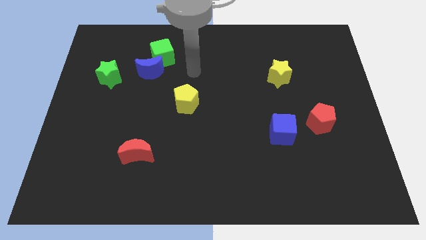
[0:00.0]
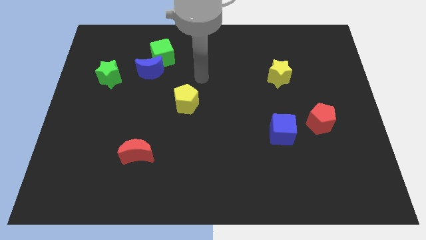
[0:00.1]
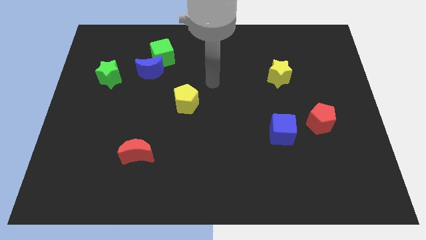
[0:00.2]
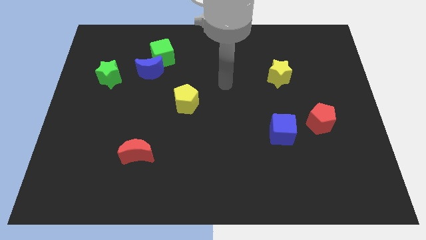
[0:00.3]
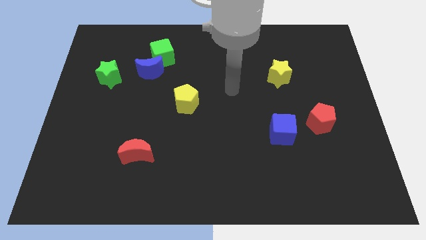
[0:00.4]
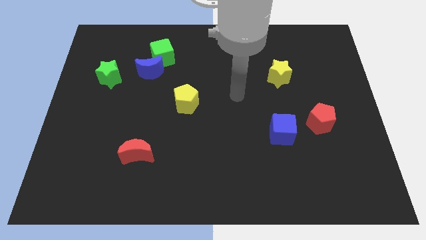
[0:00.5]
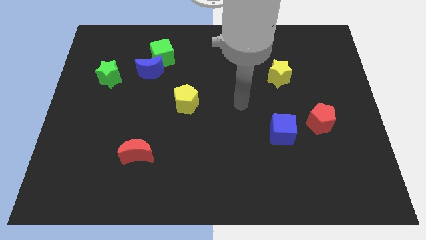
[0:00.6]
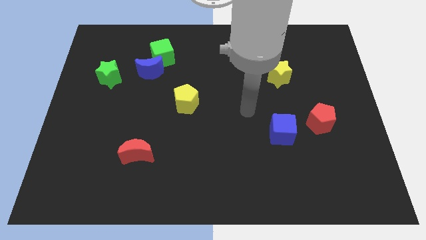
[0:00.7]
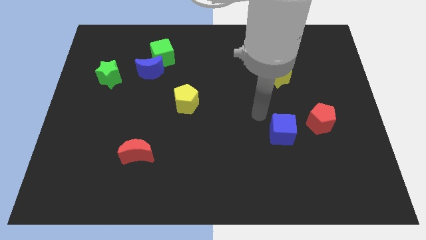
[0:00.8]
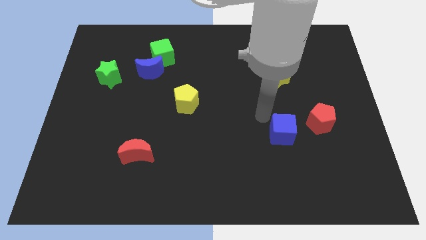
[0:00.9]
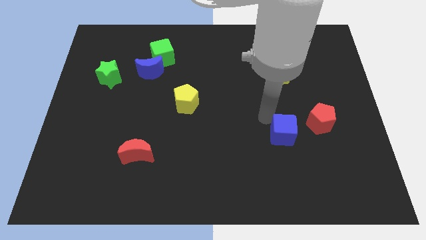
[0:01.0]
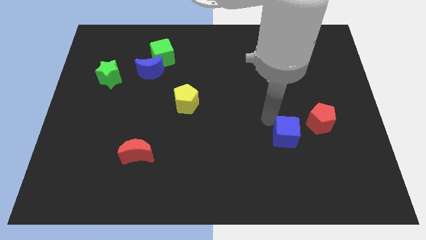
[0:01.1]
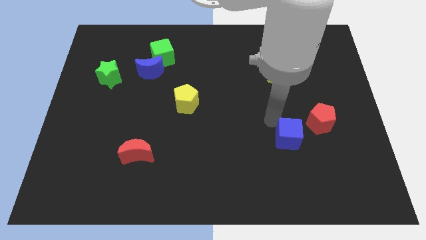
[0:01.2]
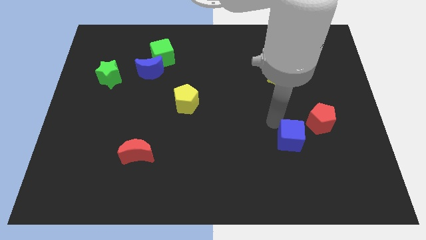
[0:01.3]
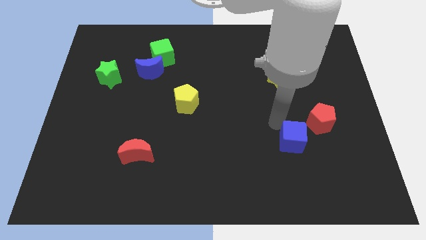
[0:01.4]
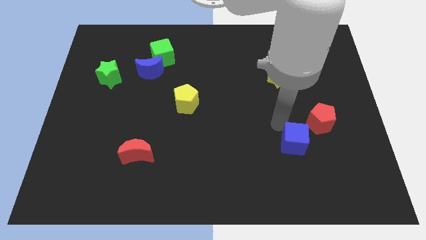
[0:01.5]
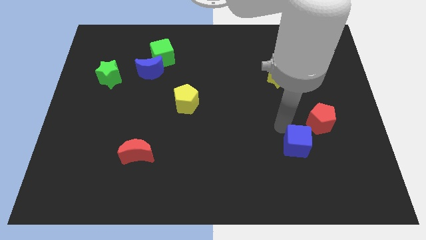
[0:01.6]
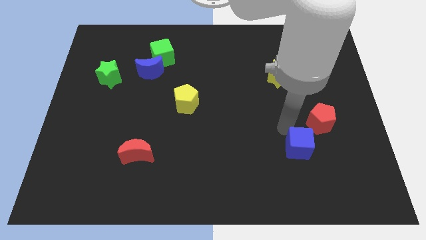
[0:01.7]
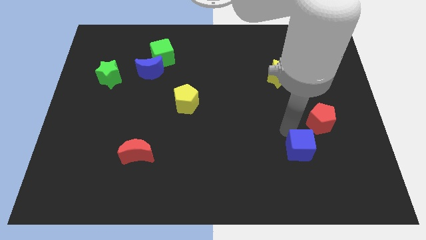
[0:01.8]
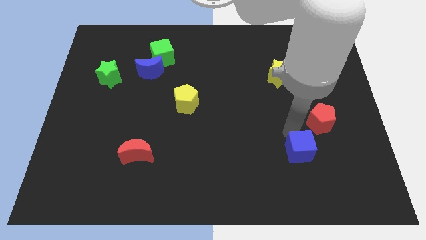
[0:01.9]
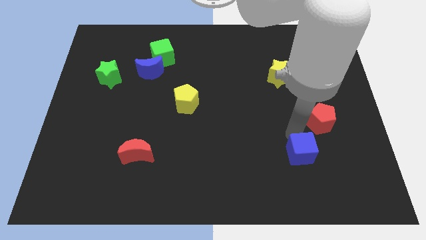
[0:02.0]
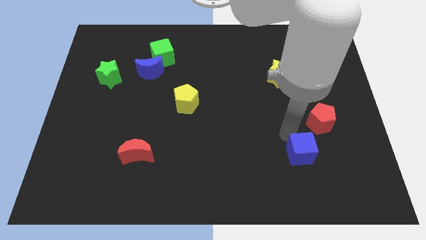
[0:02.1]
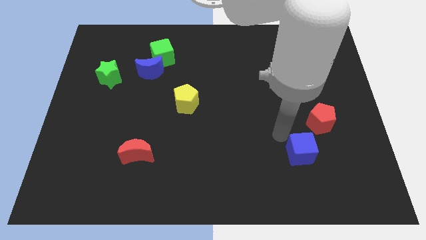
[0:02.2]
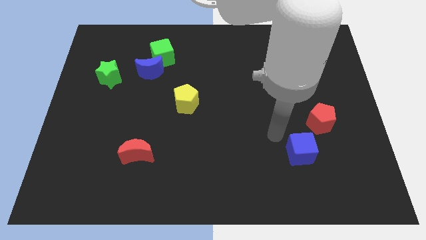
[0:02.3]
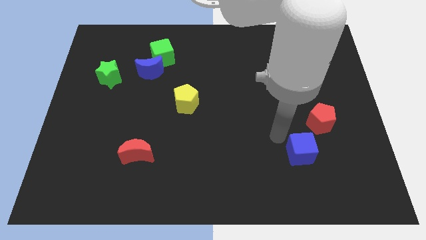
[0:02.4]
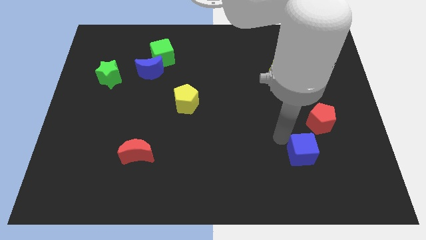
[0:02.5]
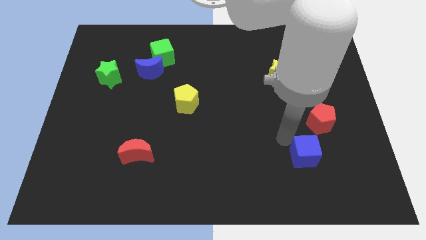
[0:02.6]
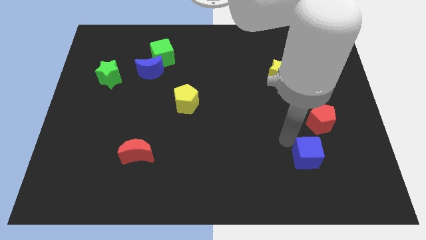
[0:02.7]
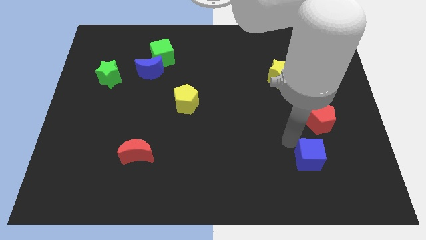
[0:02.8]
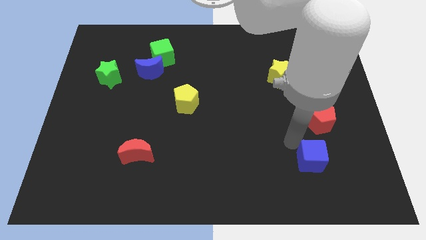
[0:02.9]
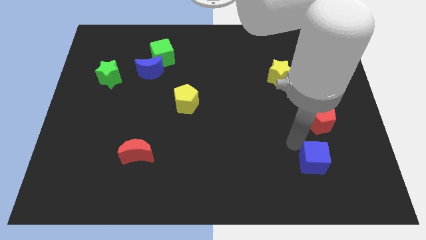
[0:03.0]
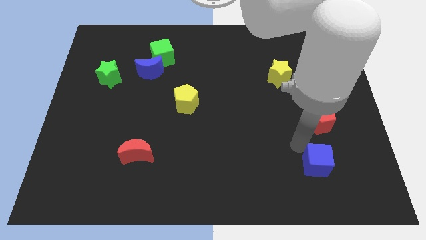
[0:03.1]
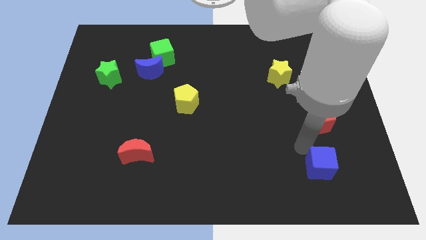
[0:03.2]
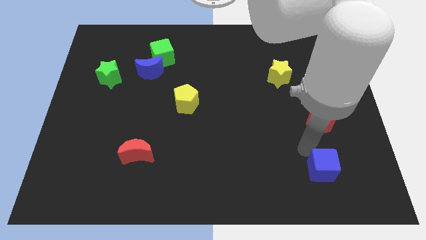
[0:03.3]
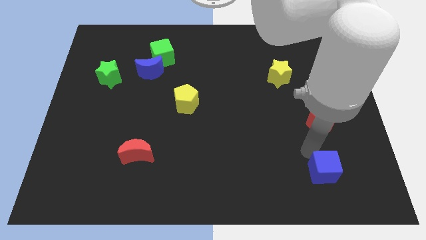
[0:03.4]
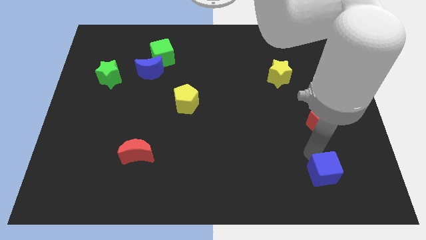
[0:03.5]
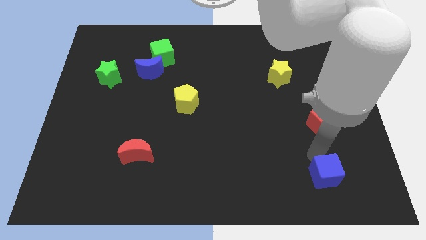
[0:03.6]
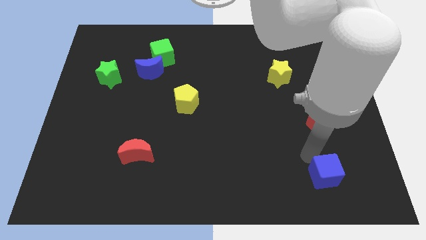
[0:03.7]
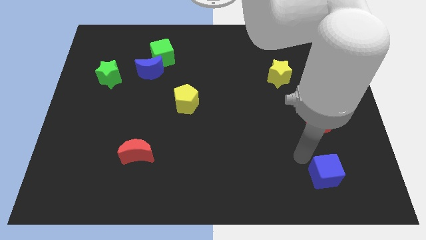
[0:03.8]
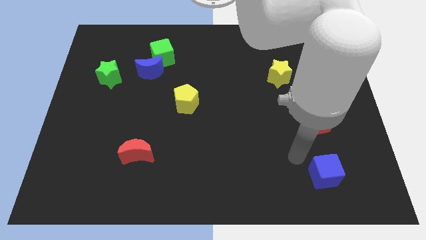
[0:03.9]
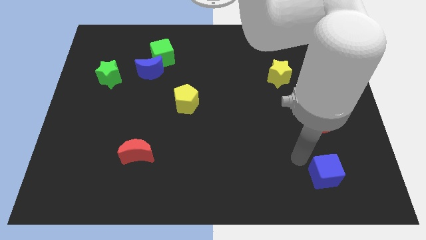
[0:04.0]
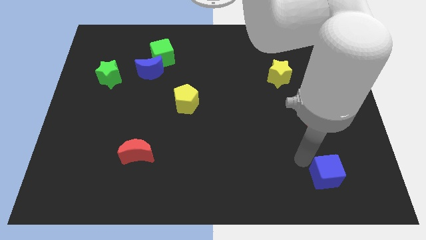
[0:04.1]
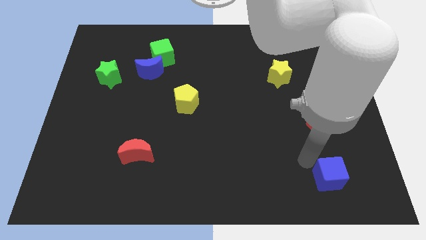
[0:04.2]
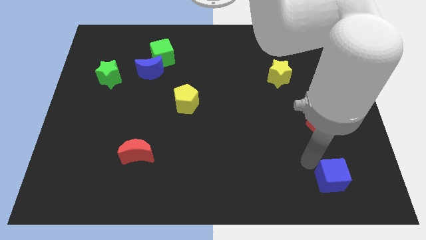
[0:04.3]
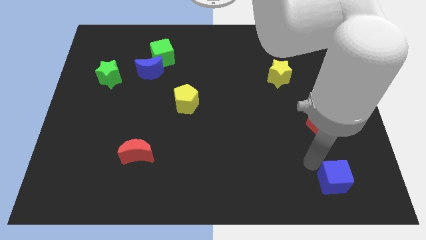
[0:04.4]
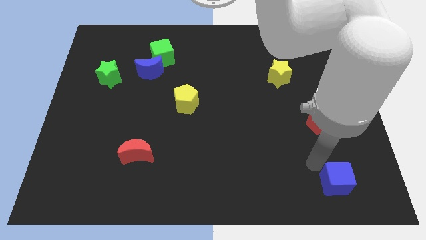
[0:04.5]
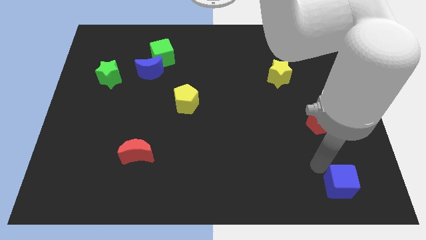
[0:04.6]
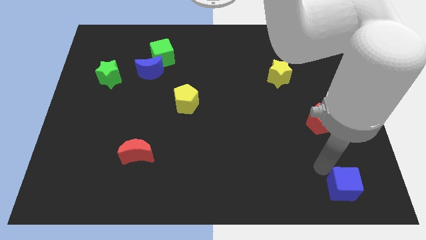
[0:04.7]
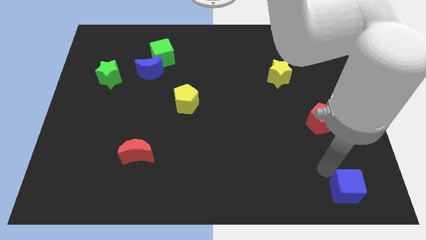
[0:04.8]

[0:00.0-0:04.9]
slide the blue cube to the bottom right of the board

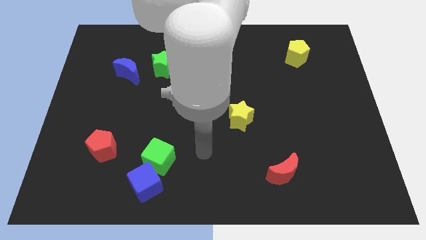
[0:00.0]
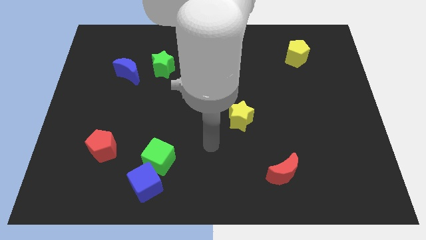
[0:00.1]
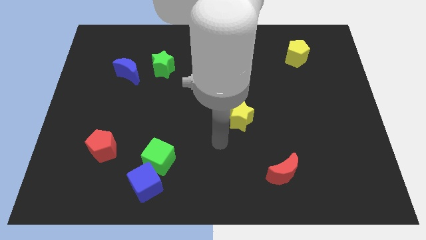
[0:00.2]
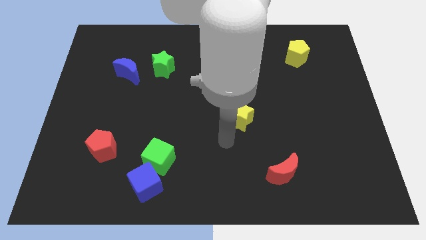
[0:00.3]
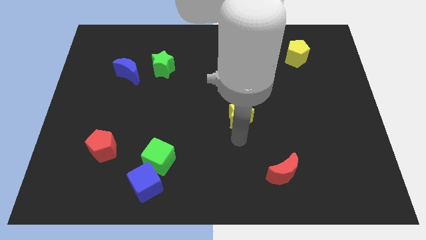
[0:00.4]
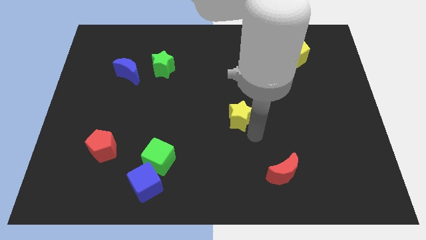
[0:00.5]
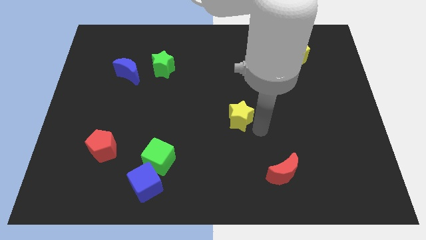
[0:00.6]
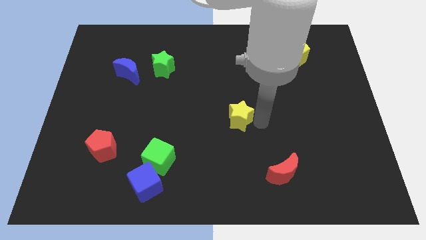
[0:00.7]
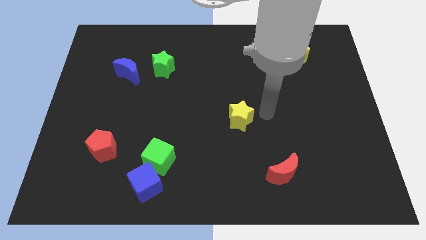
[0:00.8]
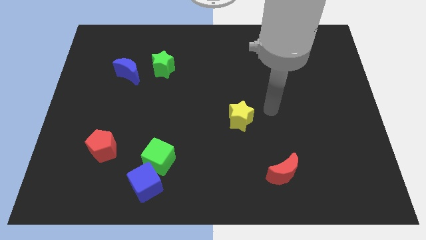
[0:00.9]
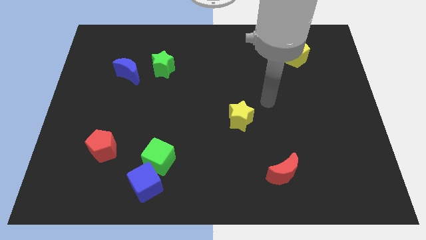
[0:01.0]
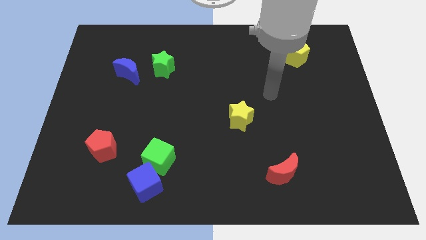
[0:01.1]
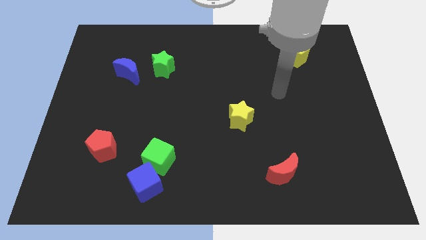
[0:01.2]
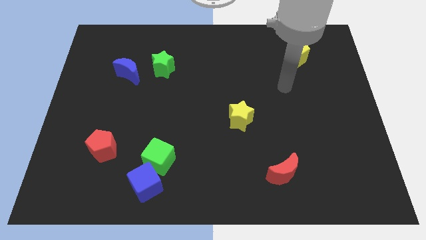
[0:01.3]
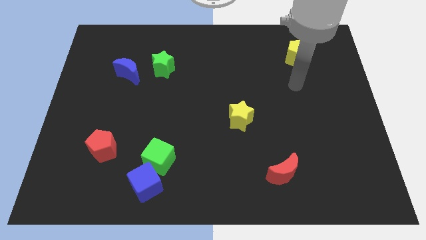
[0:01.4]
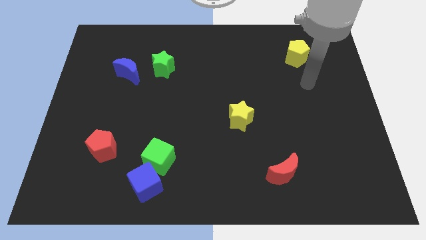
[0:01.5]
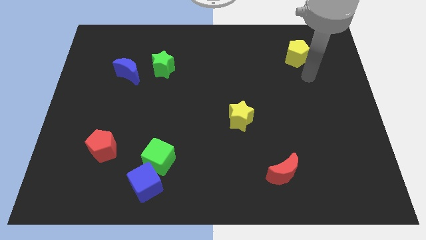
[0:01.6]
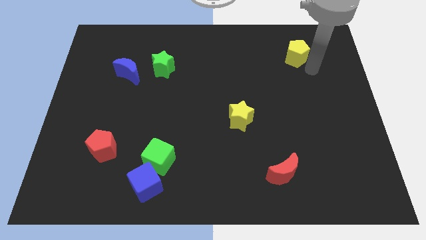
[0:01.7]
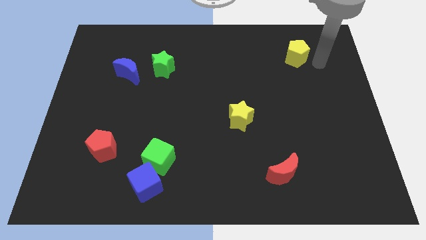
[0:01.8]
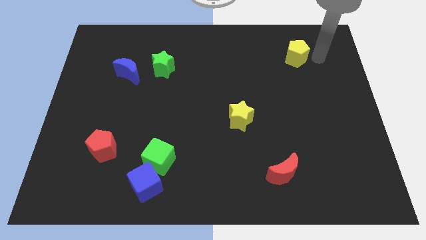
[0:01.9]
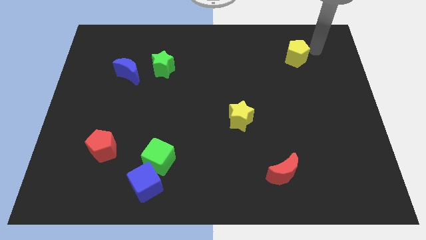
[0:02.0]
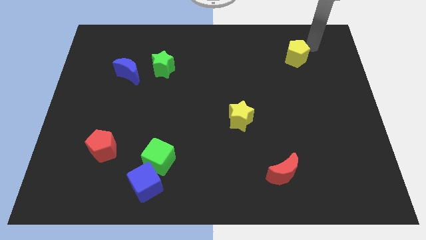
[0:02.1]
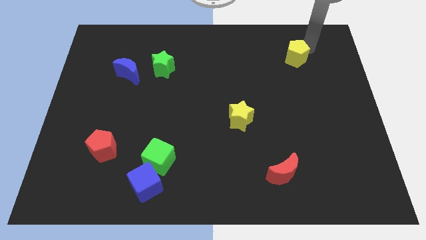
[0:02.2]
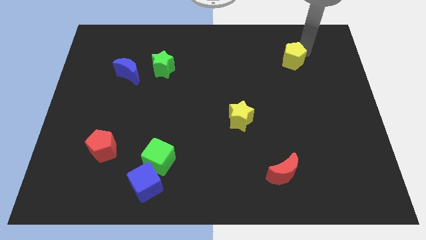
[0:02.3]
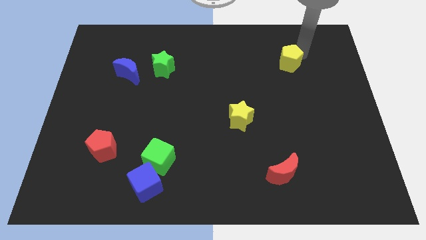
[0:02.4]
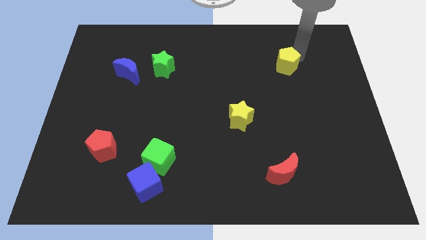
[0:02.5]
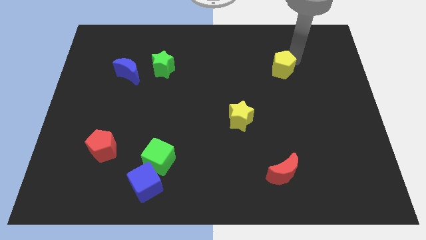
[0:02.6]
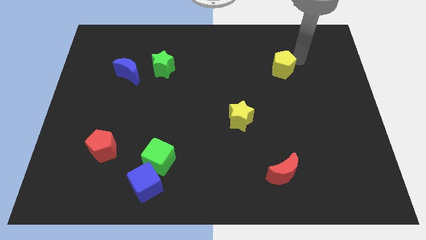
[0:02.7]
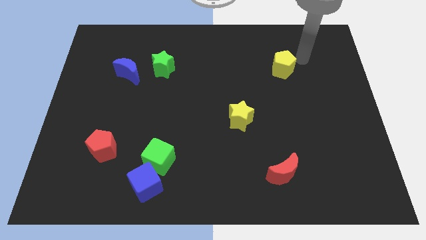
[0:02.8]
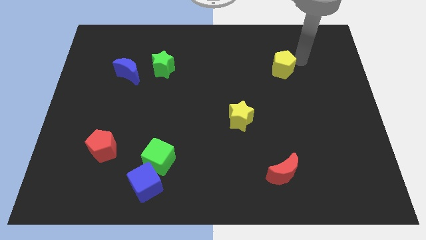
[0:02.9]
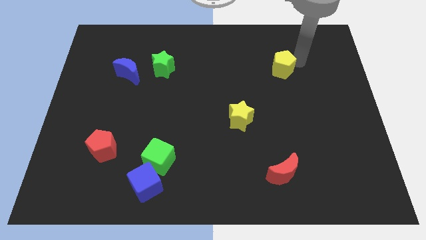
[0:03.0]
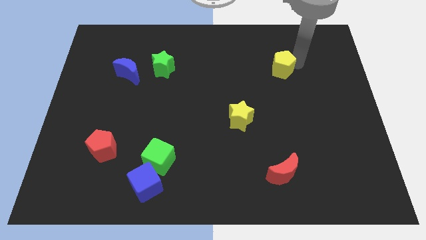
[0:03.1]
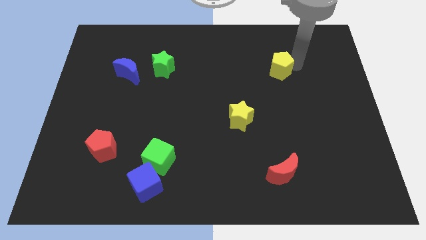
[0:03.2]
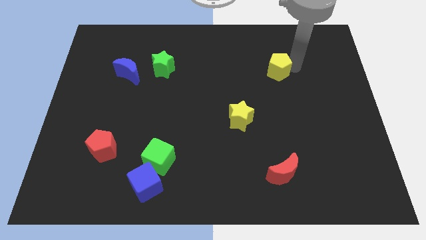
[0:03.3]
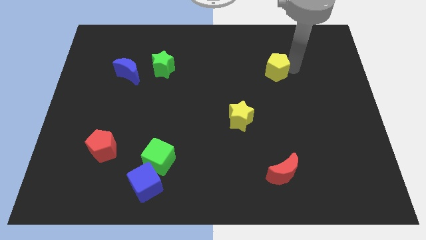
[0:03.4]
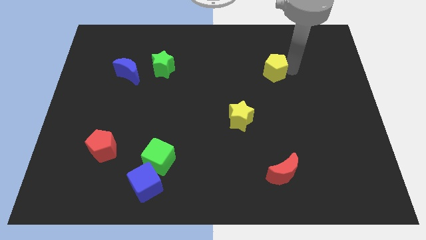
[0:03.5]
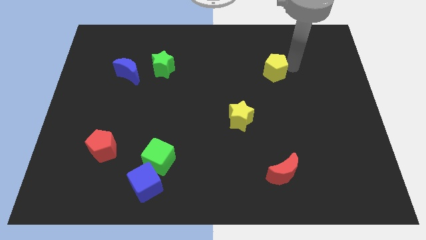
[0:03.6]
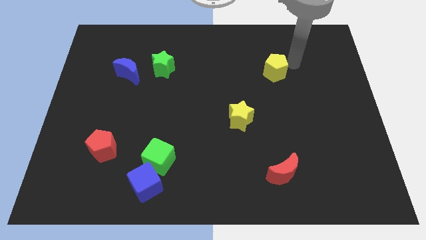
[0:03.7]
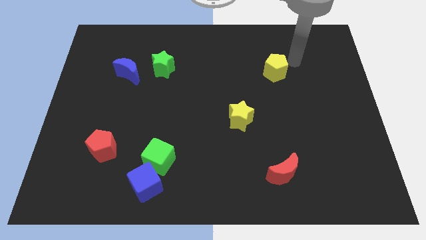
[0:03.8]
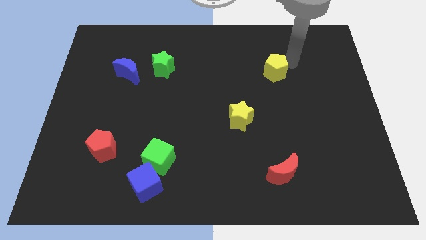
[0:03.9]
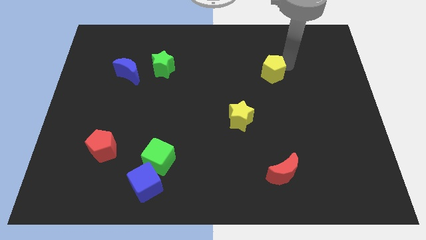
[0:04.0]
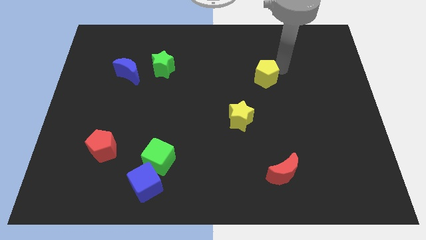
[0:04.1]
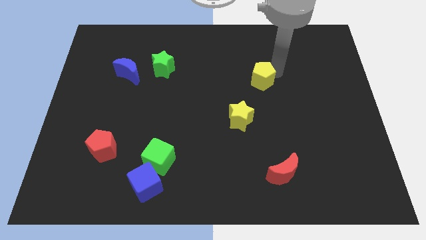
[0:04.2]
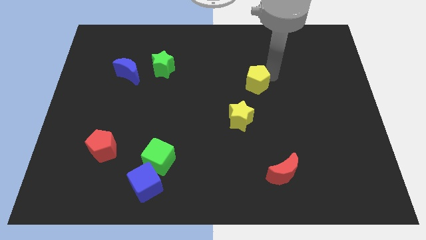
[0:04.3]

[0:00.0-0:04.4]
slide the yellow pentagon to the middle
